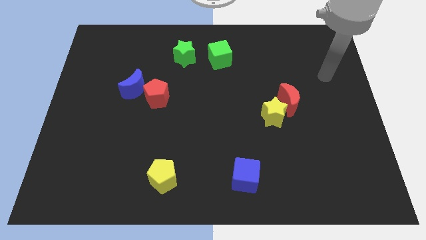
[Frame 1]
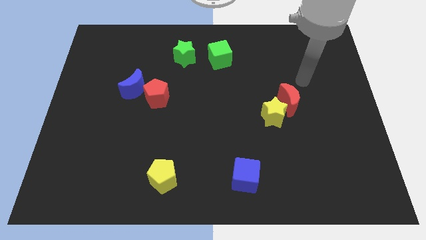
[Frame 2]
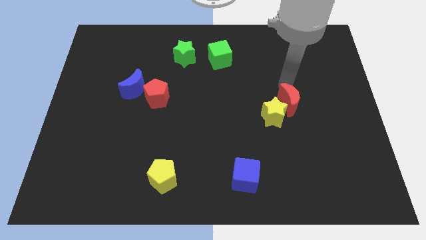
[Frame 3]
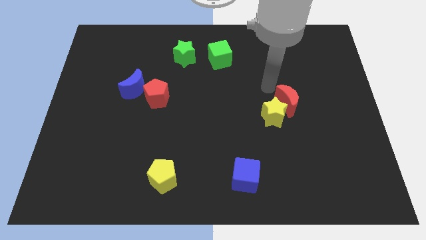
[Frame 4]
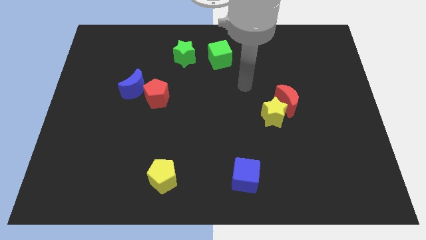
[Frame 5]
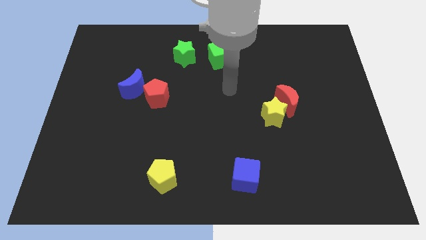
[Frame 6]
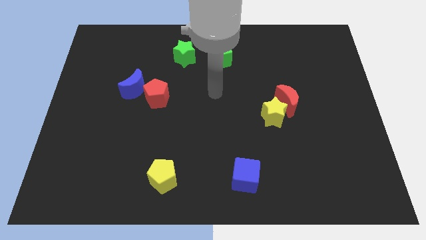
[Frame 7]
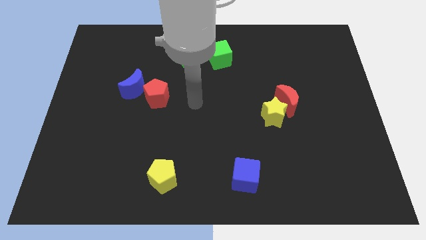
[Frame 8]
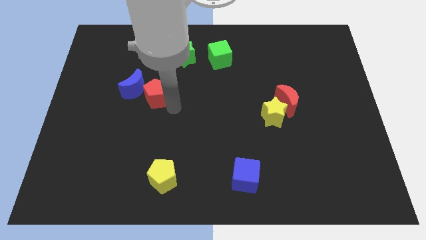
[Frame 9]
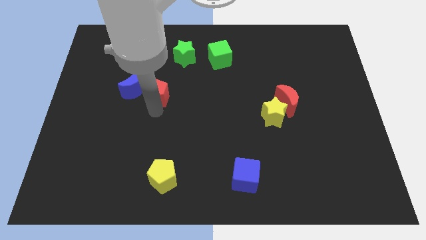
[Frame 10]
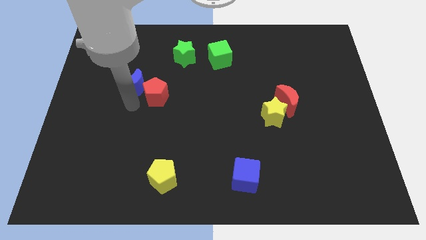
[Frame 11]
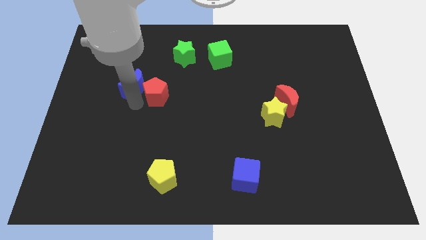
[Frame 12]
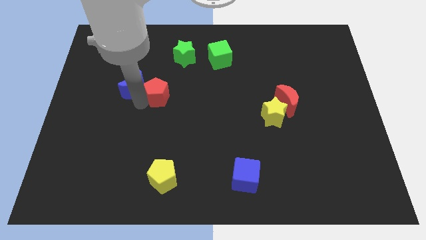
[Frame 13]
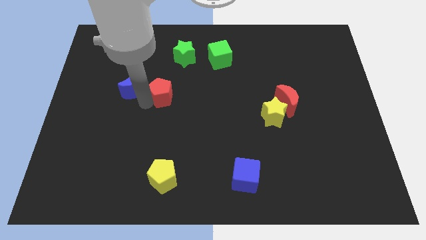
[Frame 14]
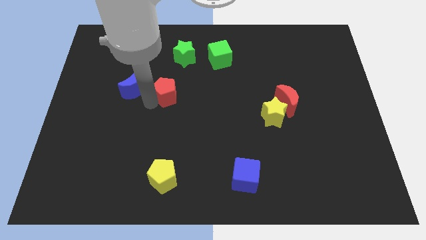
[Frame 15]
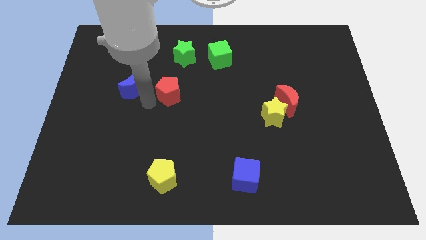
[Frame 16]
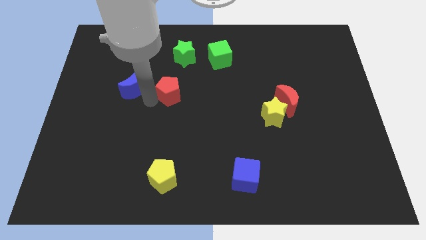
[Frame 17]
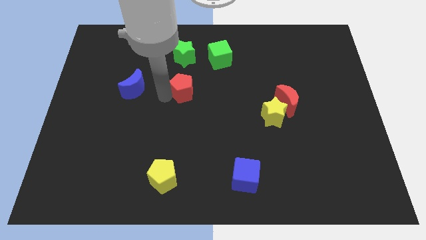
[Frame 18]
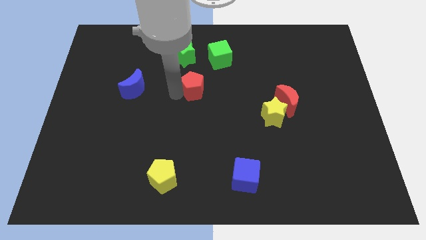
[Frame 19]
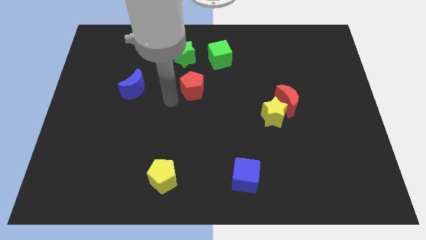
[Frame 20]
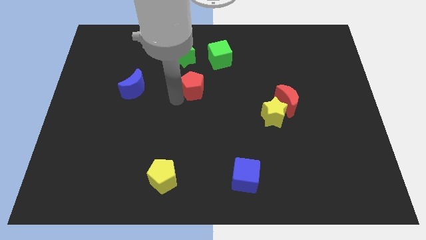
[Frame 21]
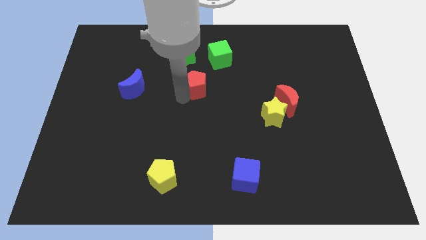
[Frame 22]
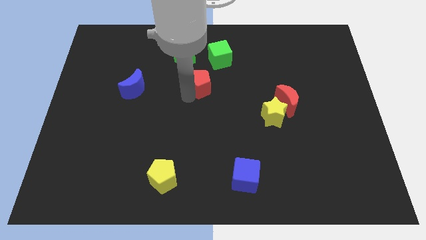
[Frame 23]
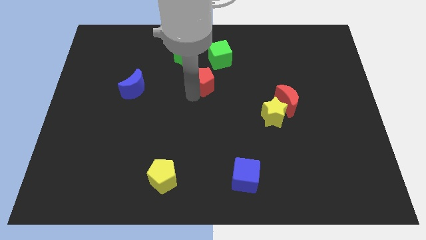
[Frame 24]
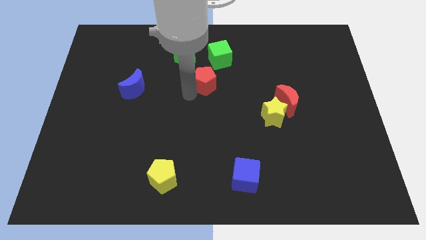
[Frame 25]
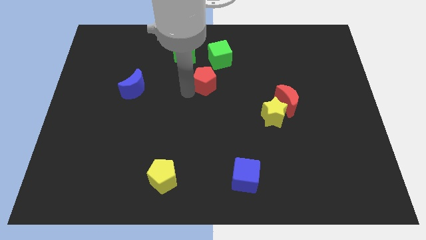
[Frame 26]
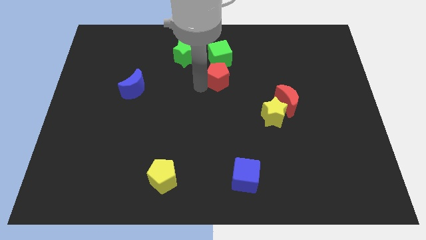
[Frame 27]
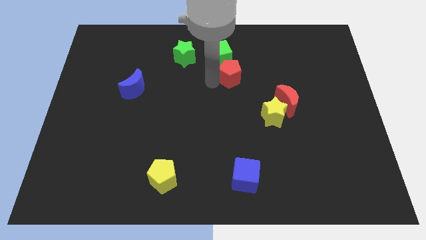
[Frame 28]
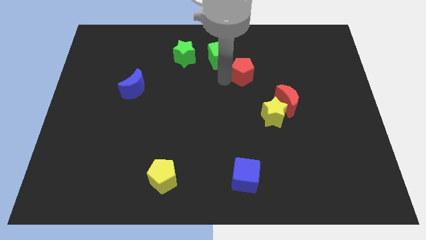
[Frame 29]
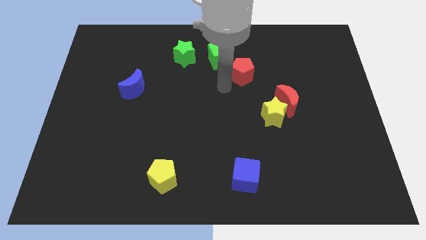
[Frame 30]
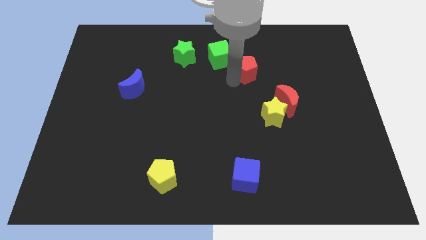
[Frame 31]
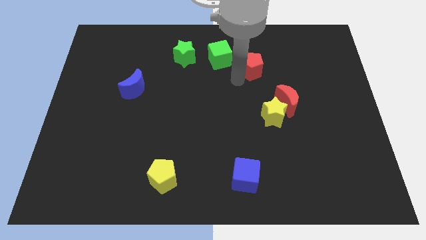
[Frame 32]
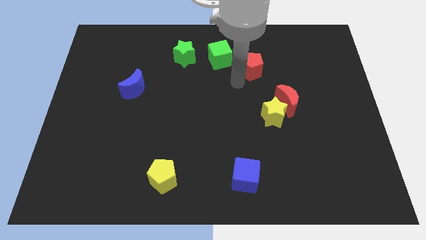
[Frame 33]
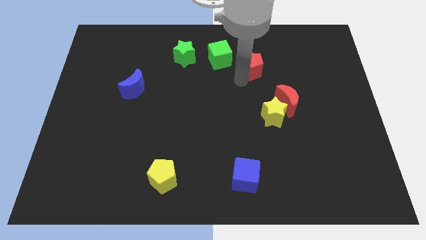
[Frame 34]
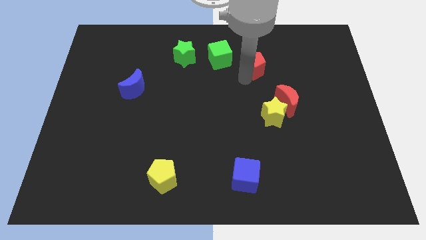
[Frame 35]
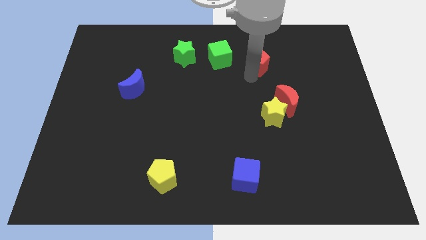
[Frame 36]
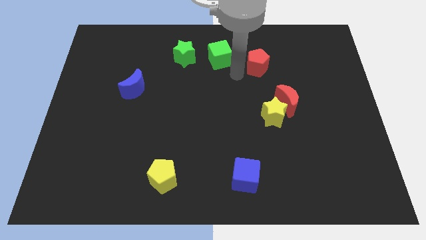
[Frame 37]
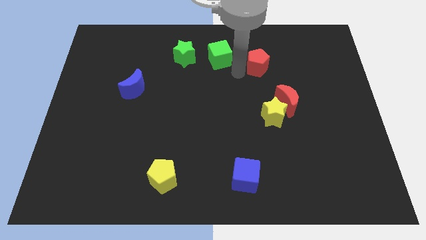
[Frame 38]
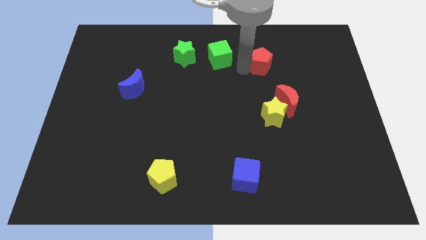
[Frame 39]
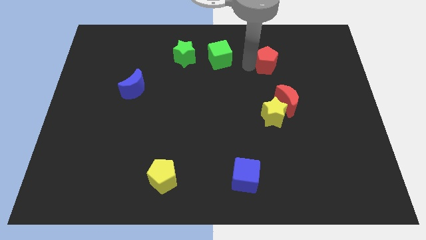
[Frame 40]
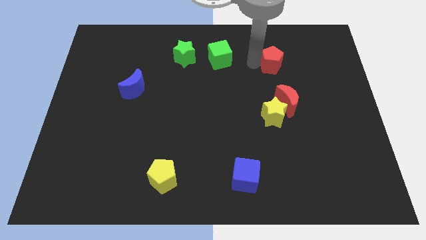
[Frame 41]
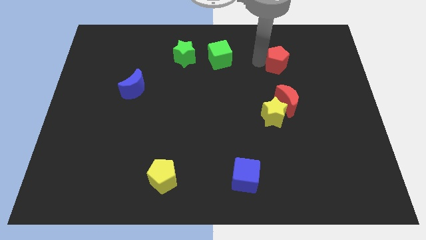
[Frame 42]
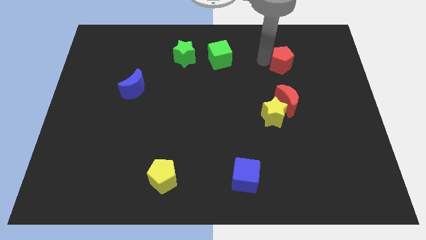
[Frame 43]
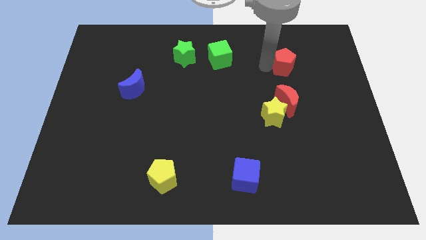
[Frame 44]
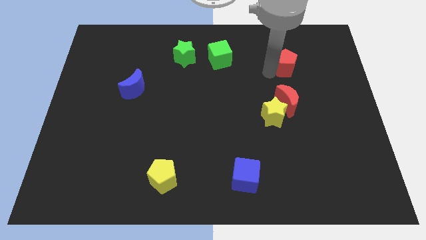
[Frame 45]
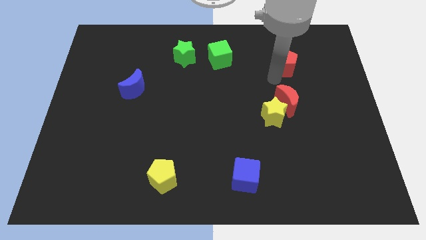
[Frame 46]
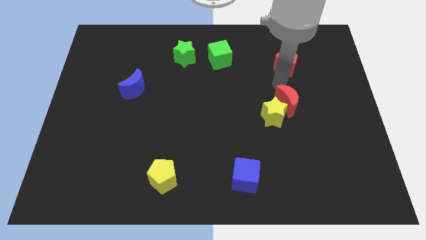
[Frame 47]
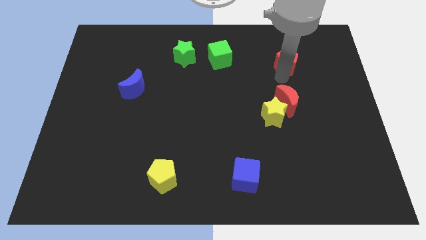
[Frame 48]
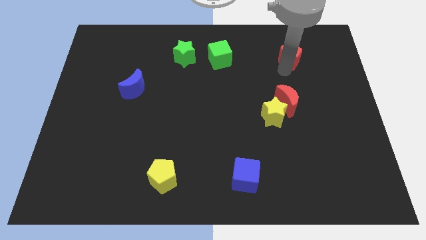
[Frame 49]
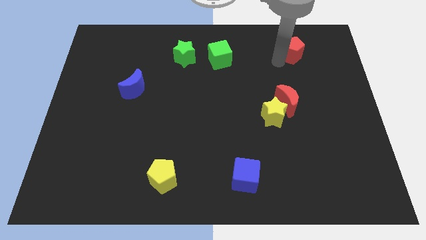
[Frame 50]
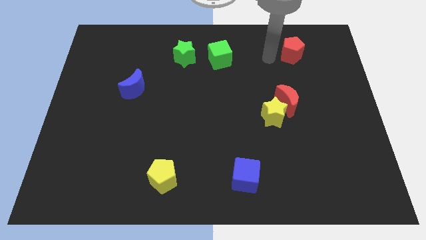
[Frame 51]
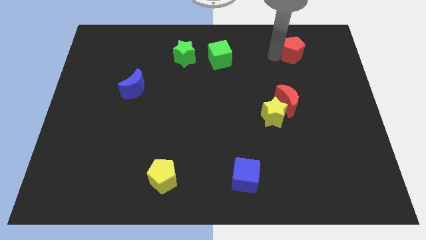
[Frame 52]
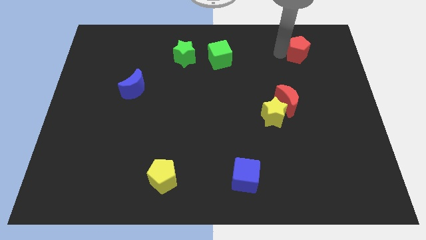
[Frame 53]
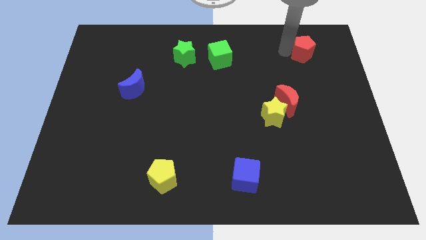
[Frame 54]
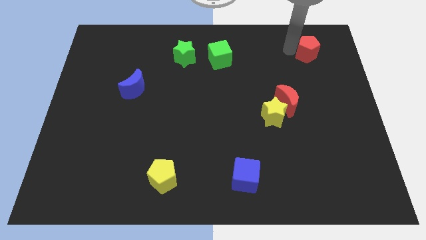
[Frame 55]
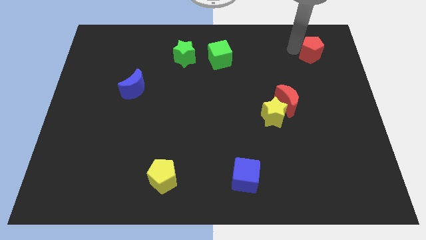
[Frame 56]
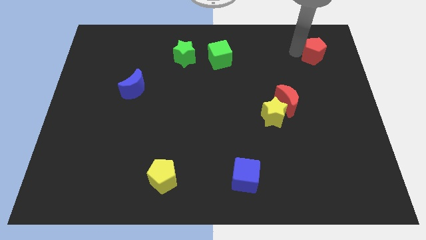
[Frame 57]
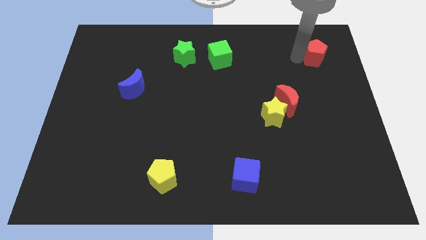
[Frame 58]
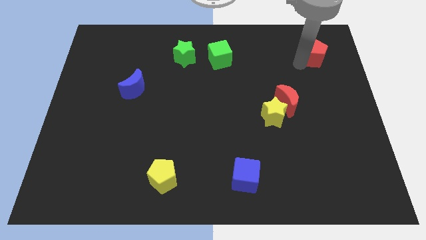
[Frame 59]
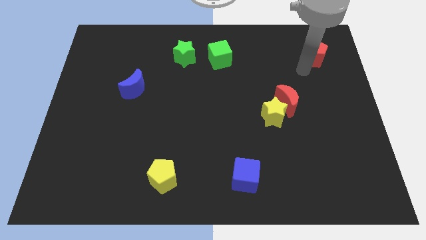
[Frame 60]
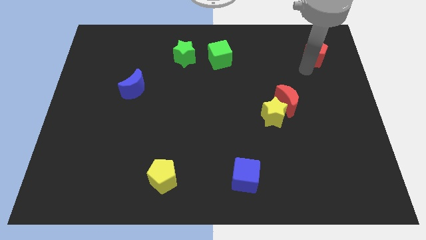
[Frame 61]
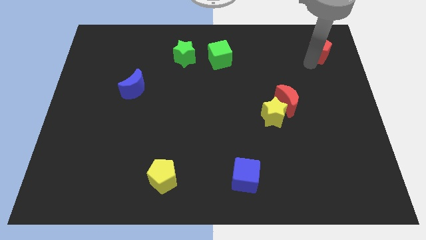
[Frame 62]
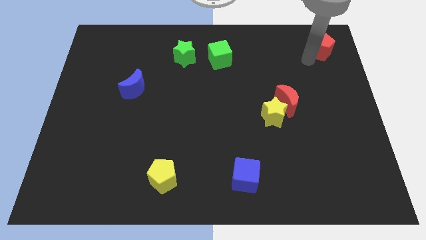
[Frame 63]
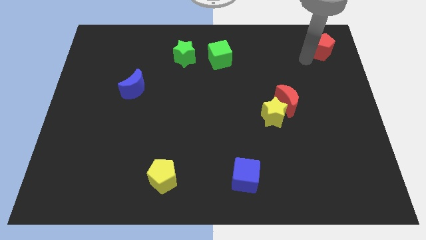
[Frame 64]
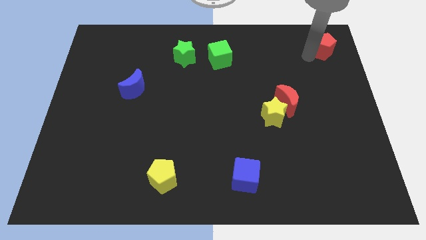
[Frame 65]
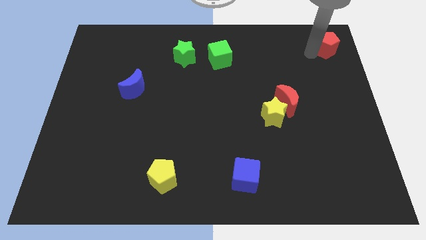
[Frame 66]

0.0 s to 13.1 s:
slide the red pentagon to the upper right corner
